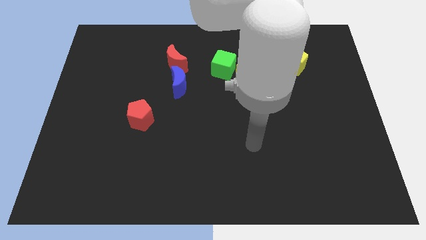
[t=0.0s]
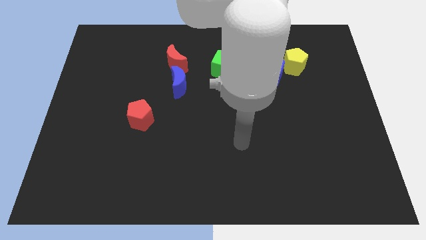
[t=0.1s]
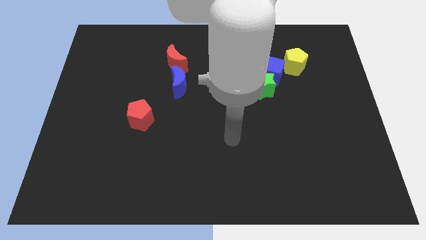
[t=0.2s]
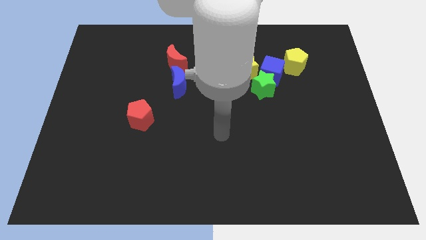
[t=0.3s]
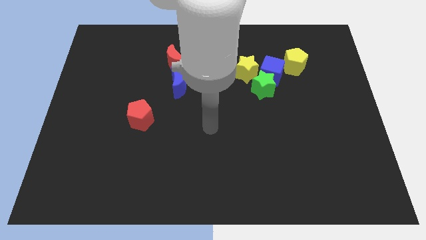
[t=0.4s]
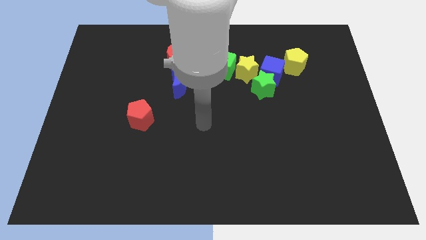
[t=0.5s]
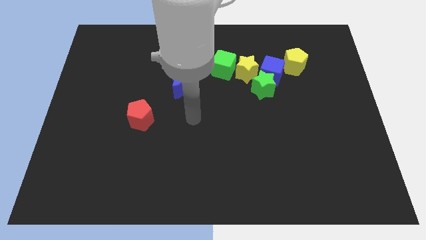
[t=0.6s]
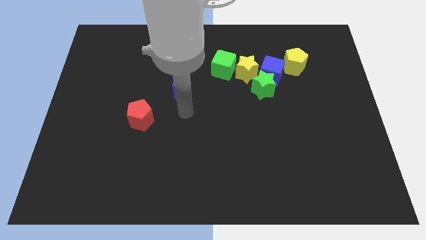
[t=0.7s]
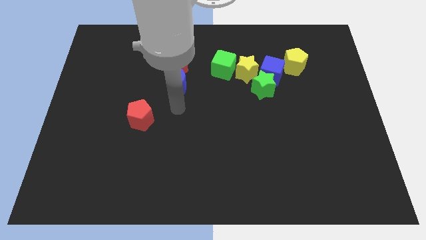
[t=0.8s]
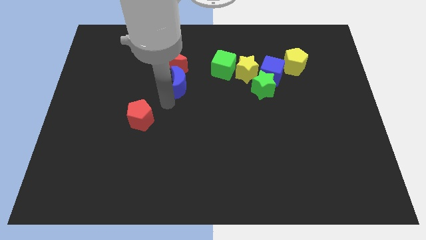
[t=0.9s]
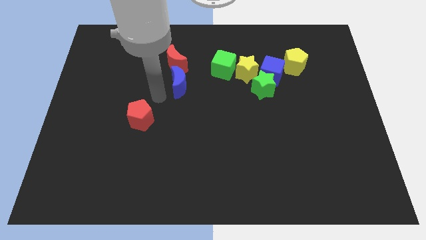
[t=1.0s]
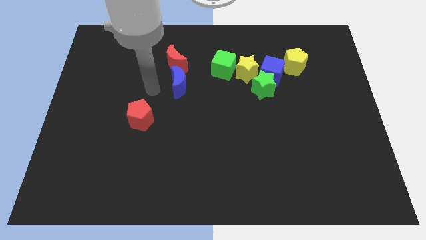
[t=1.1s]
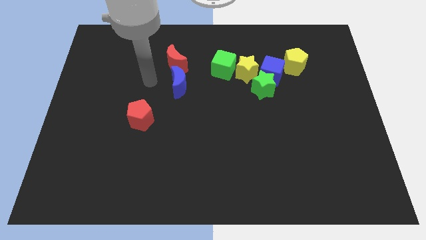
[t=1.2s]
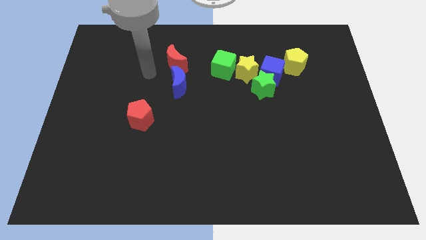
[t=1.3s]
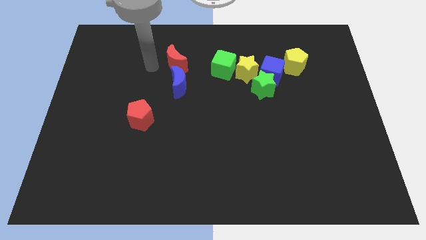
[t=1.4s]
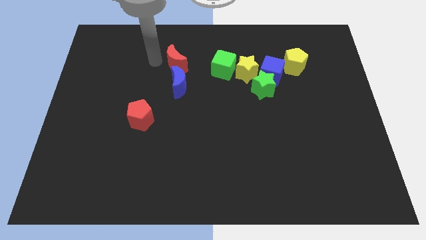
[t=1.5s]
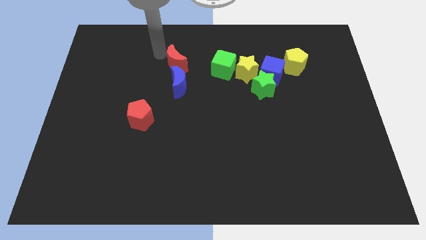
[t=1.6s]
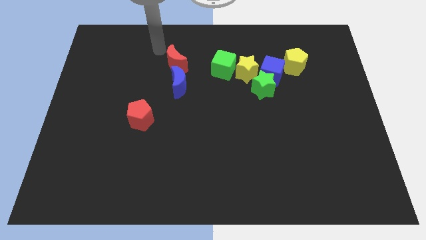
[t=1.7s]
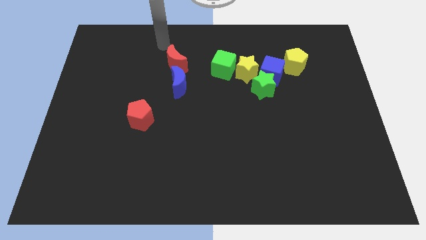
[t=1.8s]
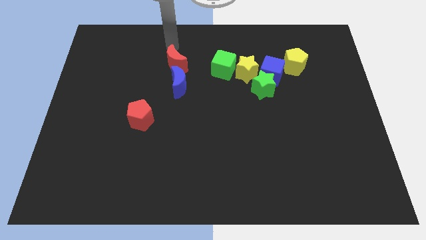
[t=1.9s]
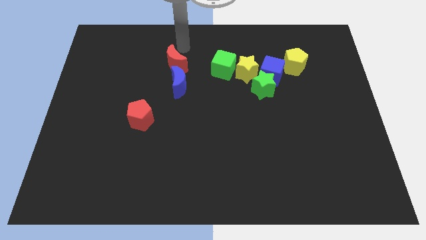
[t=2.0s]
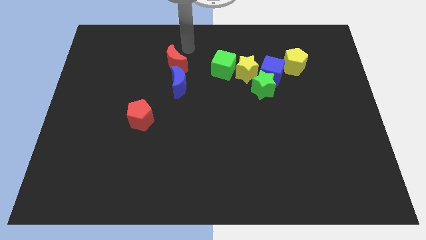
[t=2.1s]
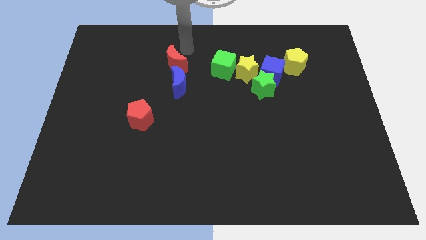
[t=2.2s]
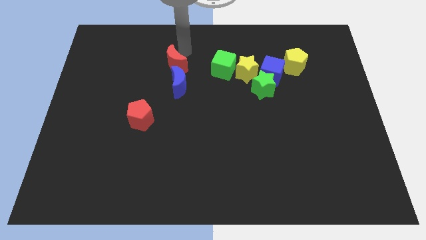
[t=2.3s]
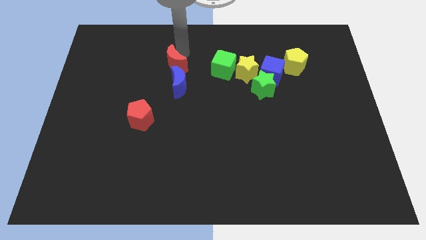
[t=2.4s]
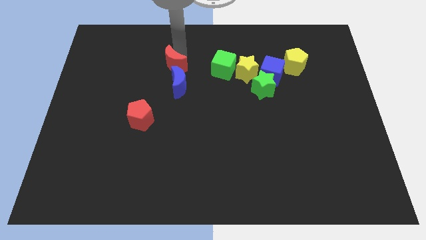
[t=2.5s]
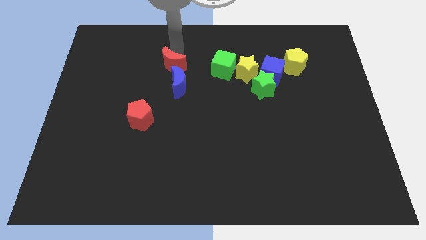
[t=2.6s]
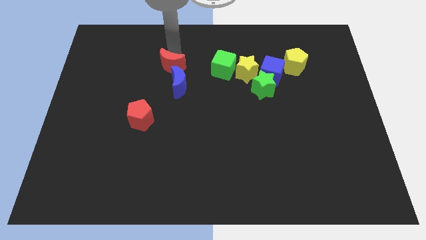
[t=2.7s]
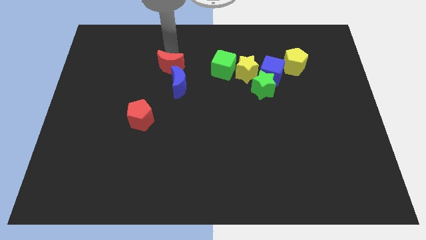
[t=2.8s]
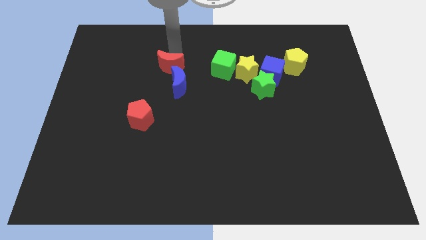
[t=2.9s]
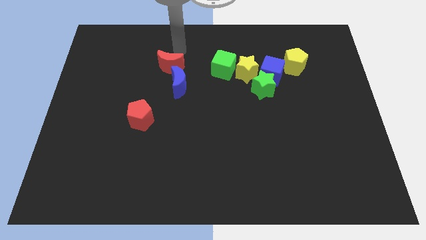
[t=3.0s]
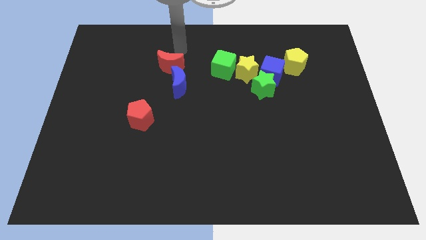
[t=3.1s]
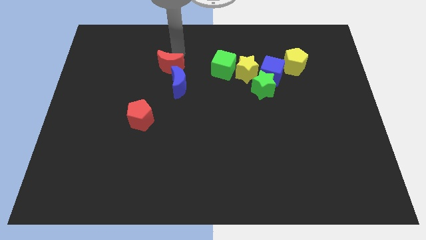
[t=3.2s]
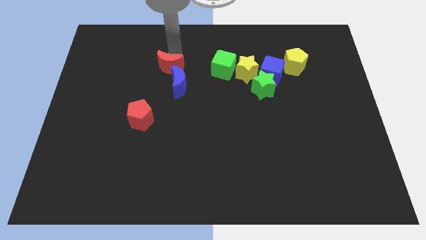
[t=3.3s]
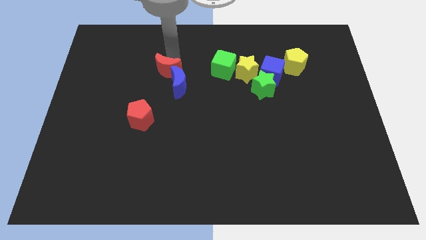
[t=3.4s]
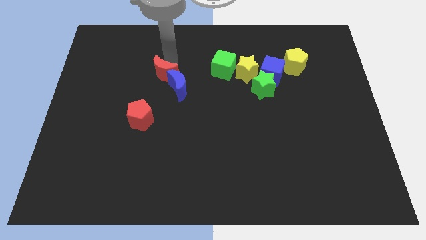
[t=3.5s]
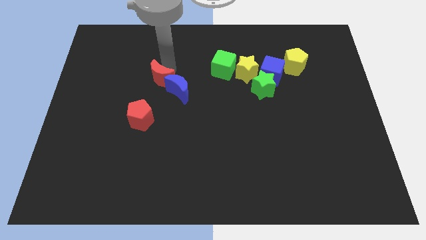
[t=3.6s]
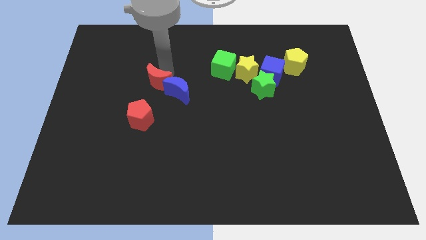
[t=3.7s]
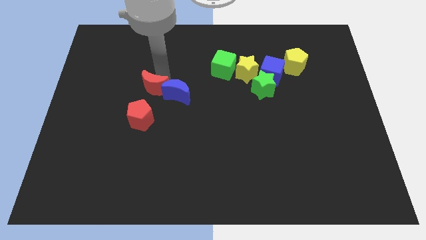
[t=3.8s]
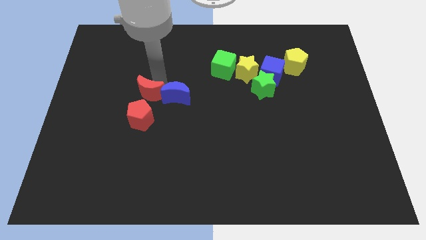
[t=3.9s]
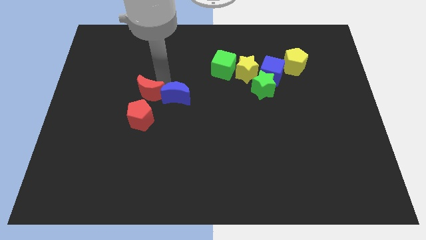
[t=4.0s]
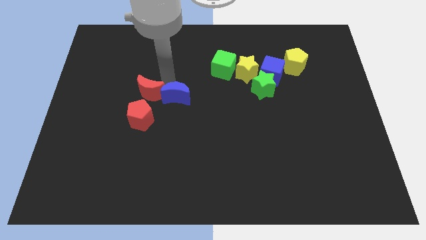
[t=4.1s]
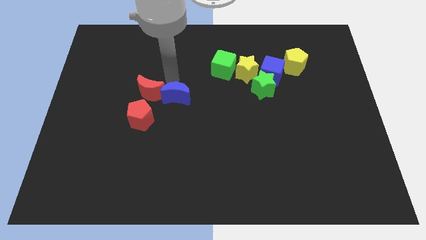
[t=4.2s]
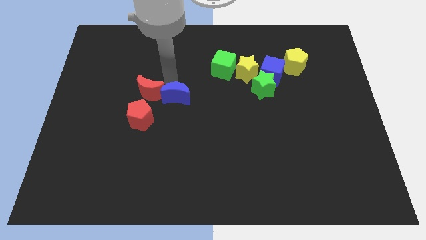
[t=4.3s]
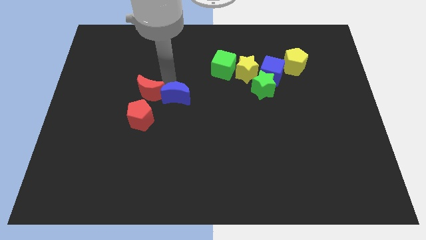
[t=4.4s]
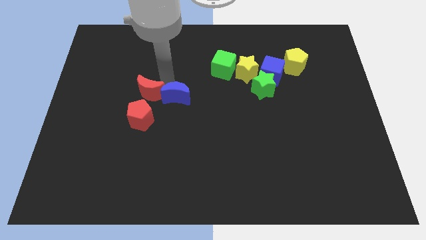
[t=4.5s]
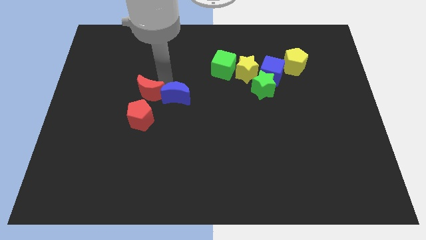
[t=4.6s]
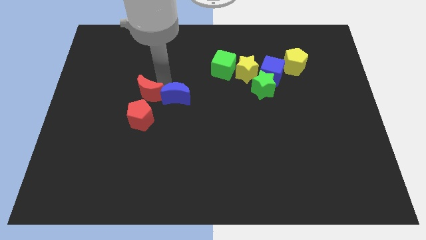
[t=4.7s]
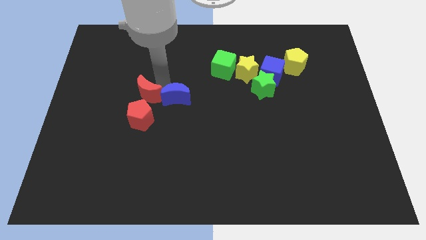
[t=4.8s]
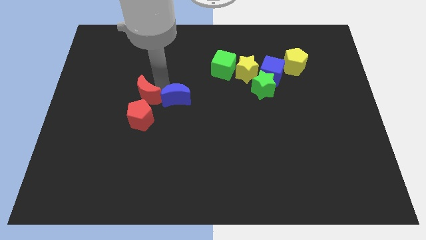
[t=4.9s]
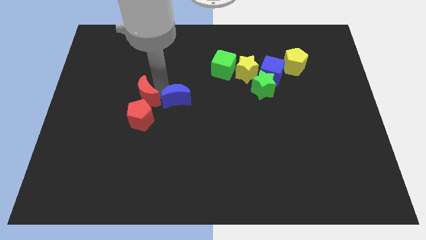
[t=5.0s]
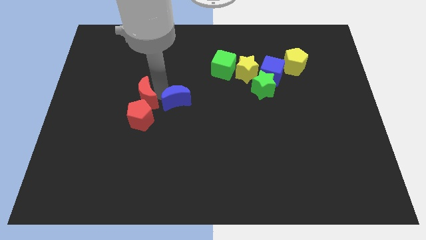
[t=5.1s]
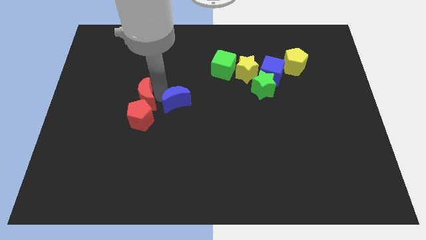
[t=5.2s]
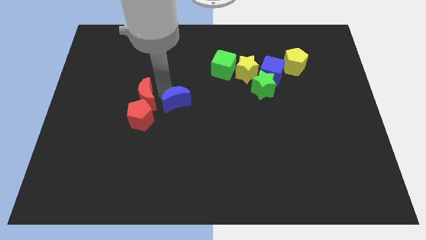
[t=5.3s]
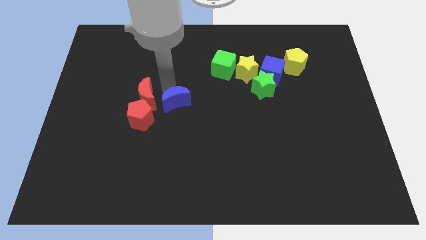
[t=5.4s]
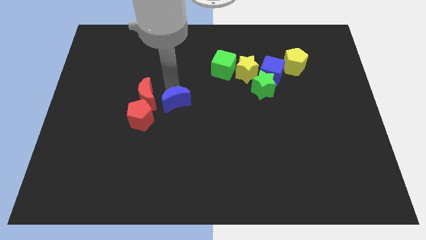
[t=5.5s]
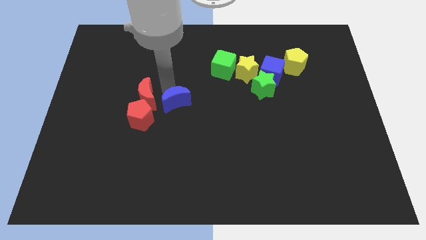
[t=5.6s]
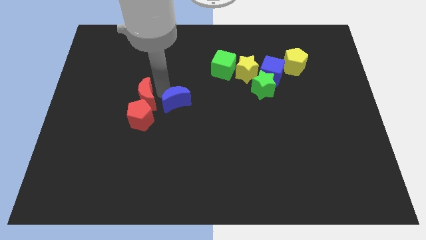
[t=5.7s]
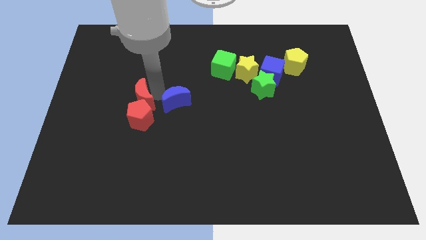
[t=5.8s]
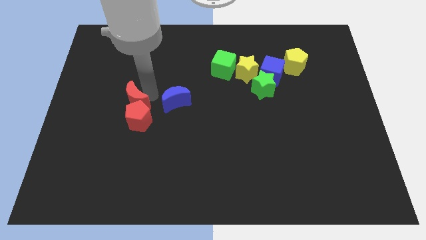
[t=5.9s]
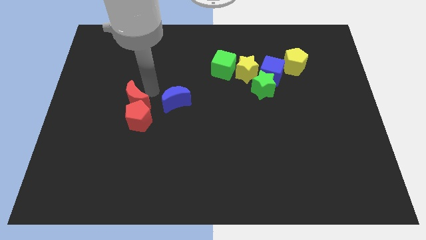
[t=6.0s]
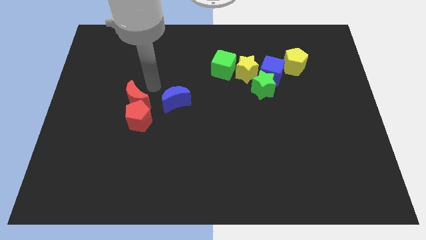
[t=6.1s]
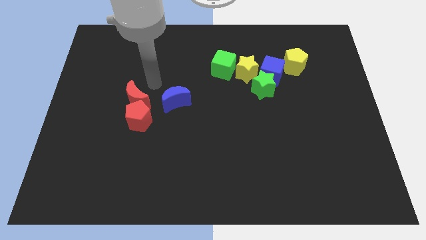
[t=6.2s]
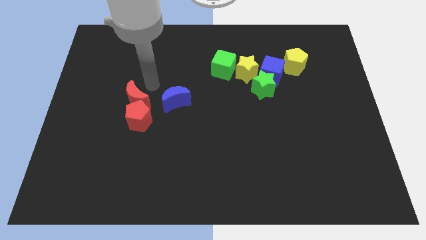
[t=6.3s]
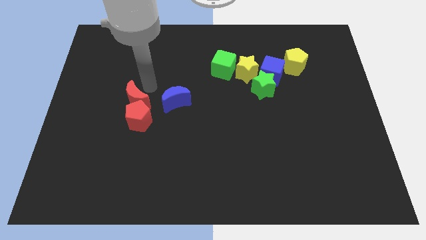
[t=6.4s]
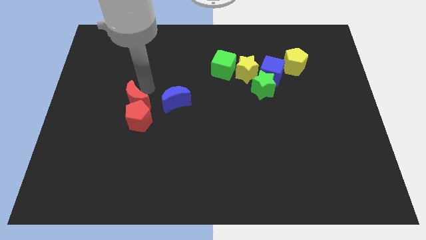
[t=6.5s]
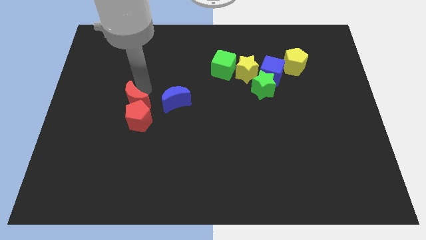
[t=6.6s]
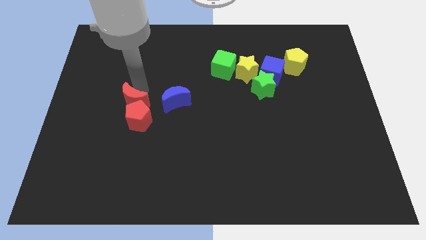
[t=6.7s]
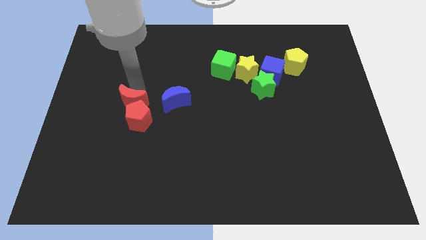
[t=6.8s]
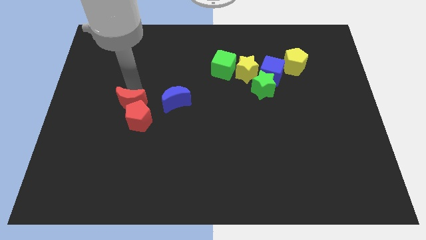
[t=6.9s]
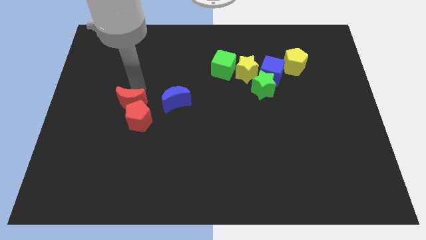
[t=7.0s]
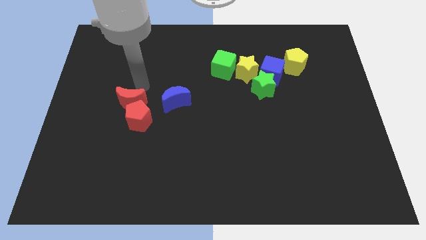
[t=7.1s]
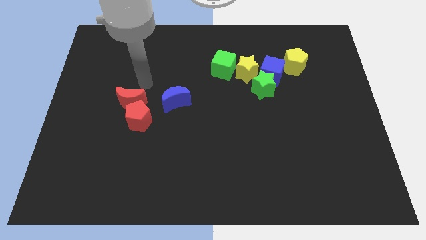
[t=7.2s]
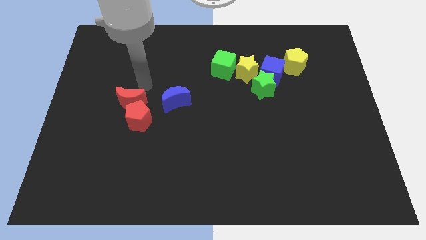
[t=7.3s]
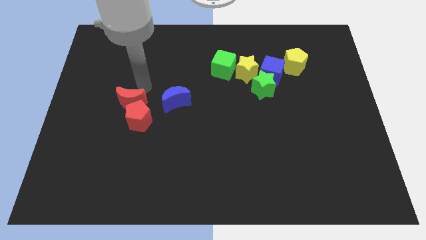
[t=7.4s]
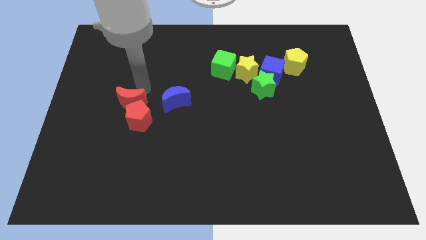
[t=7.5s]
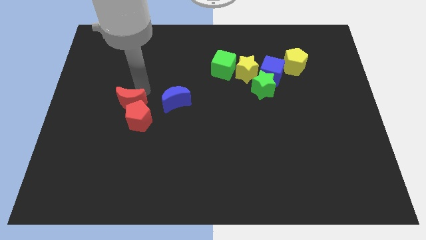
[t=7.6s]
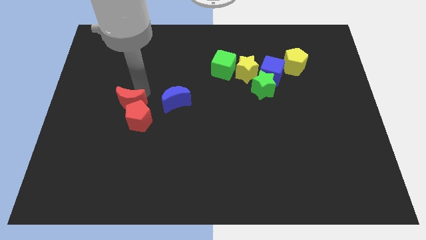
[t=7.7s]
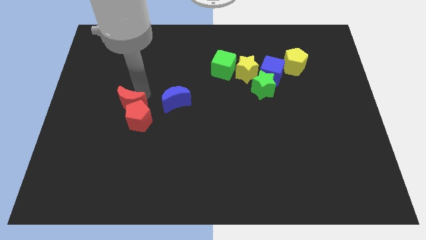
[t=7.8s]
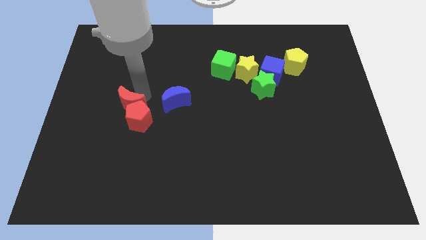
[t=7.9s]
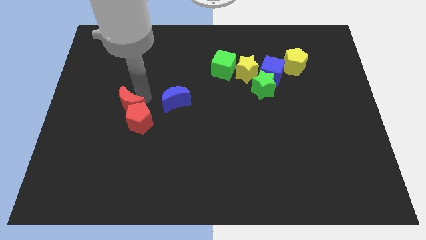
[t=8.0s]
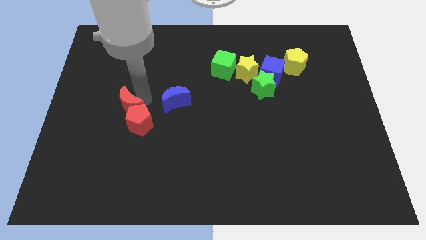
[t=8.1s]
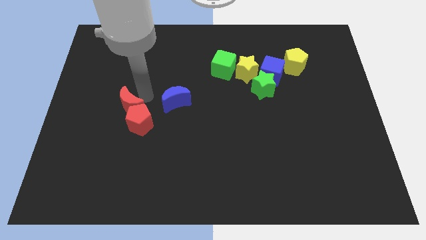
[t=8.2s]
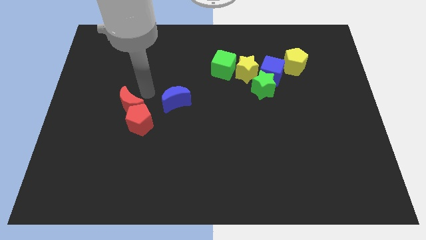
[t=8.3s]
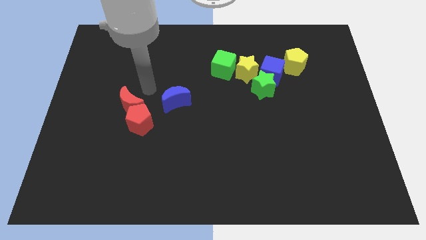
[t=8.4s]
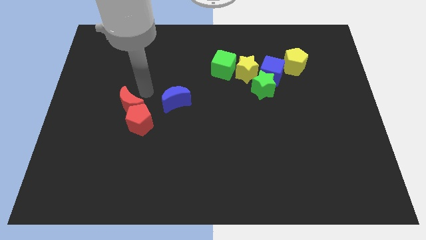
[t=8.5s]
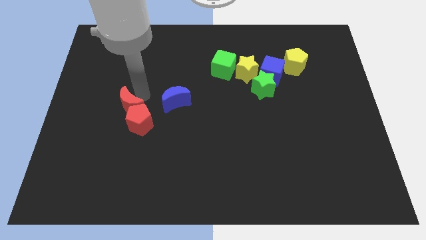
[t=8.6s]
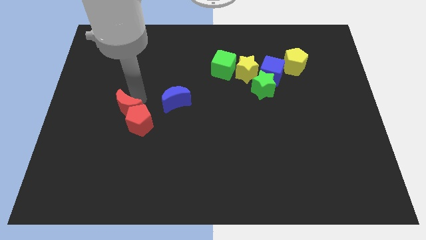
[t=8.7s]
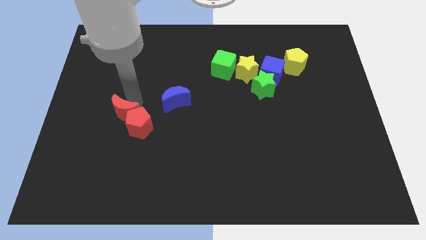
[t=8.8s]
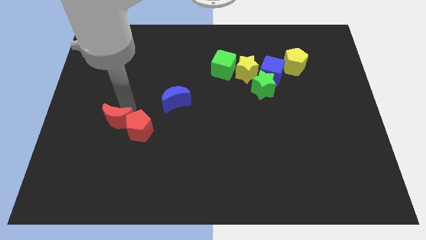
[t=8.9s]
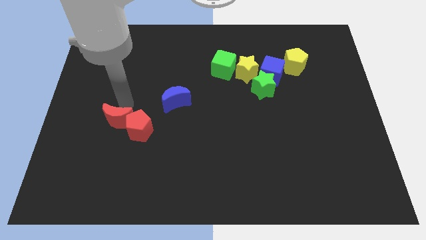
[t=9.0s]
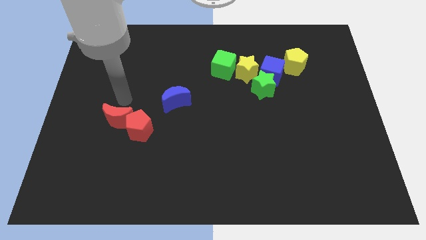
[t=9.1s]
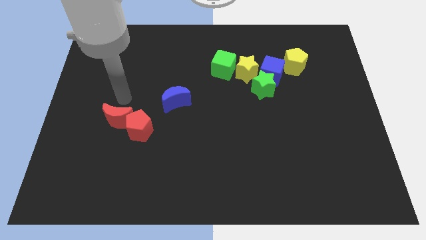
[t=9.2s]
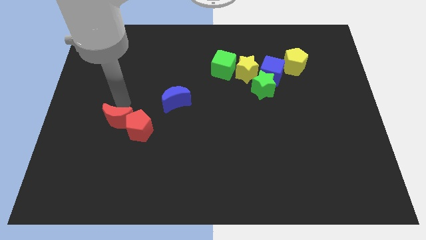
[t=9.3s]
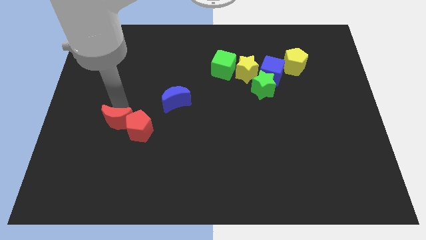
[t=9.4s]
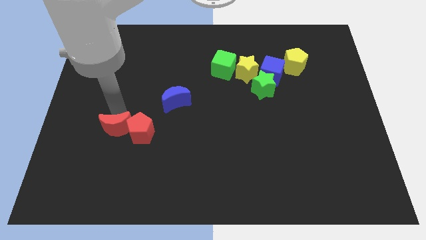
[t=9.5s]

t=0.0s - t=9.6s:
slide the red moon to the bottom left of the red pentagon
